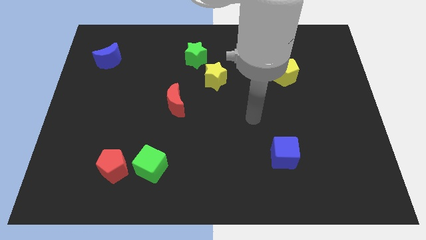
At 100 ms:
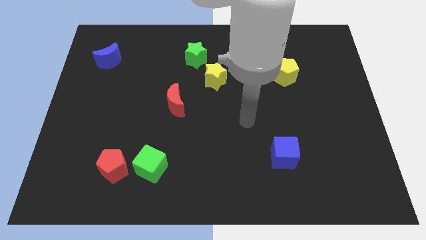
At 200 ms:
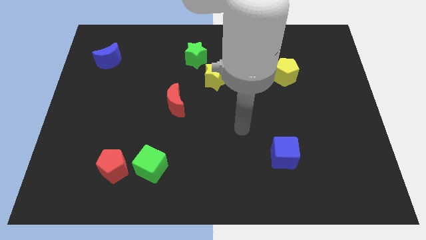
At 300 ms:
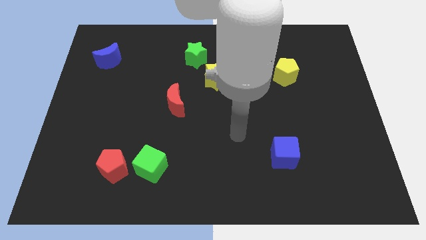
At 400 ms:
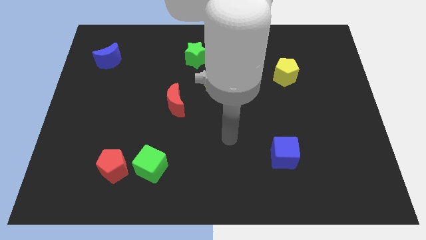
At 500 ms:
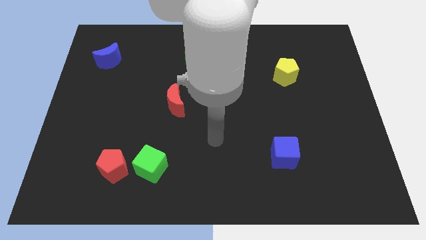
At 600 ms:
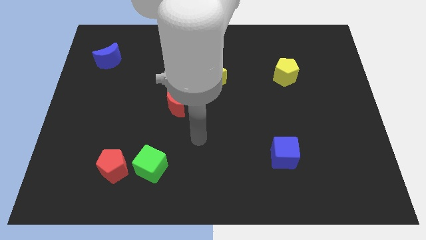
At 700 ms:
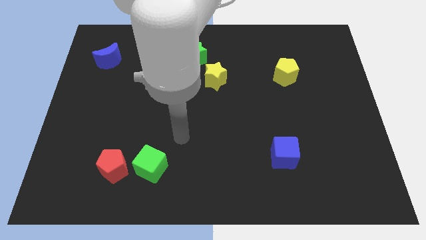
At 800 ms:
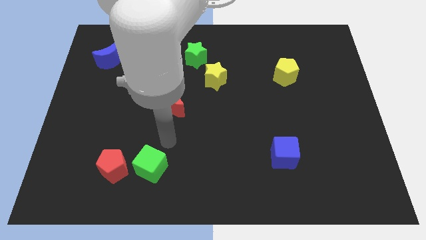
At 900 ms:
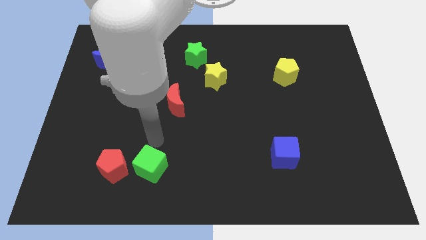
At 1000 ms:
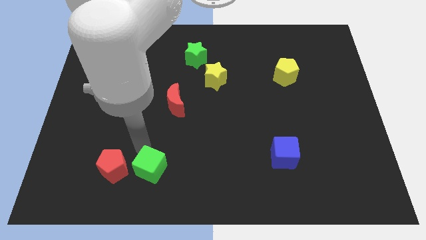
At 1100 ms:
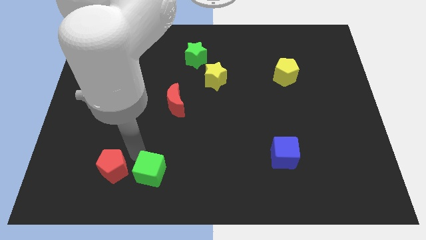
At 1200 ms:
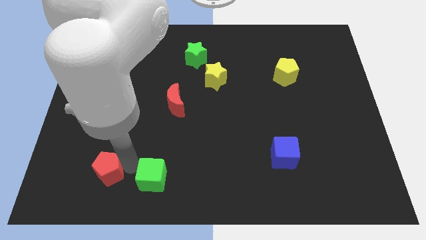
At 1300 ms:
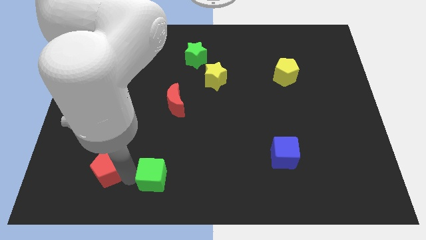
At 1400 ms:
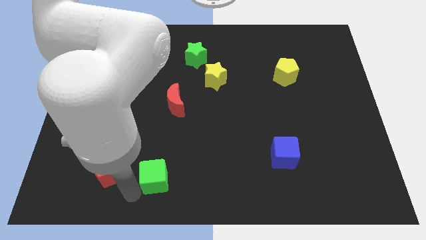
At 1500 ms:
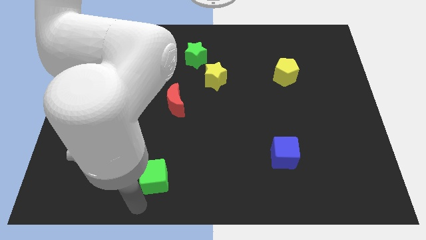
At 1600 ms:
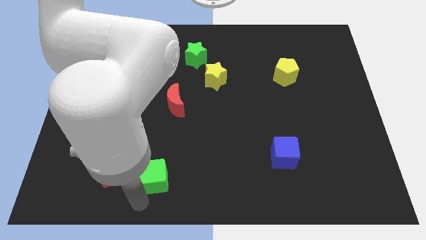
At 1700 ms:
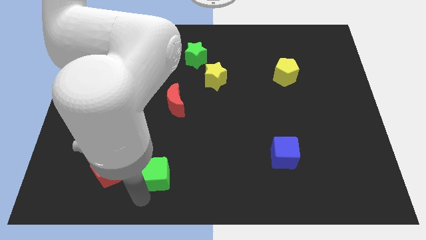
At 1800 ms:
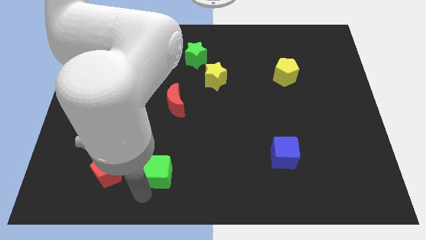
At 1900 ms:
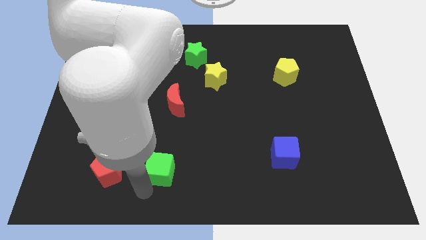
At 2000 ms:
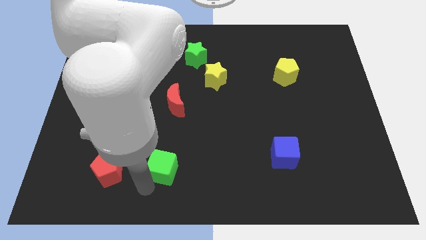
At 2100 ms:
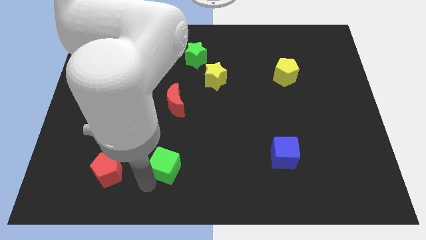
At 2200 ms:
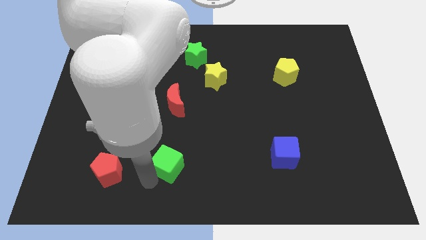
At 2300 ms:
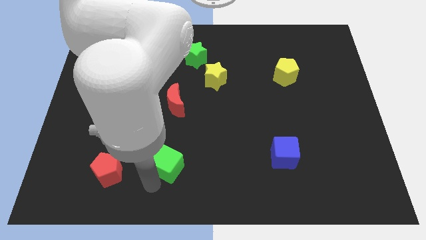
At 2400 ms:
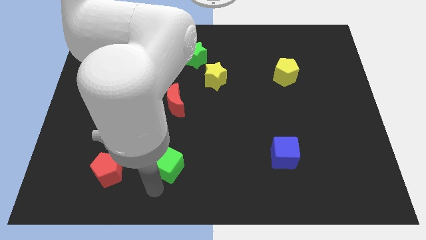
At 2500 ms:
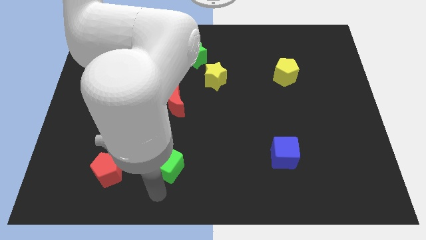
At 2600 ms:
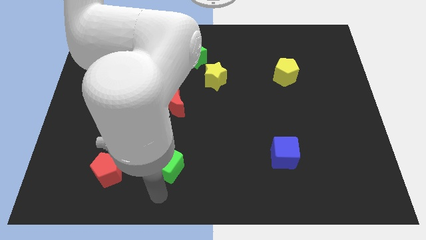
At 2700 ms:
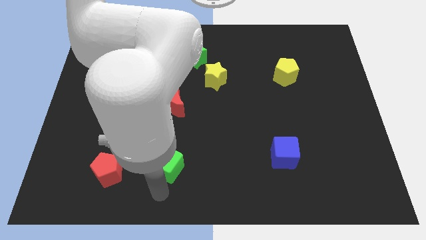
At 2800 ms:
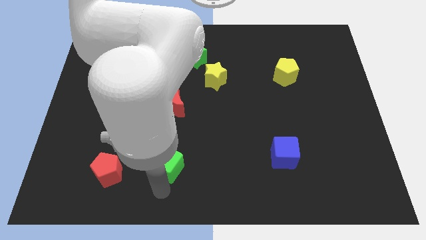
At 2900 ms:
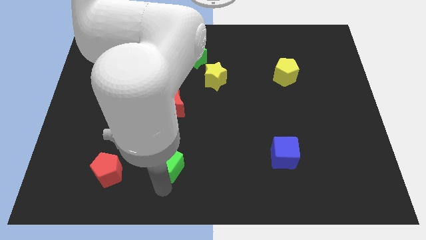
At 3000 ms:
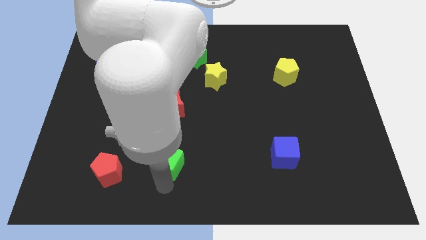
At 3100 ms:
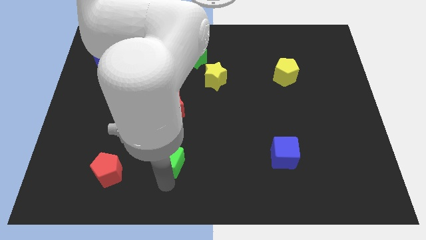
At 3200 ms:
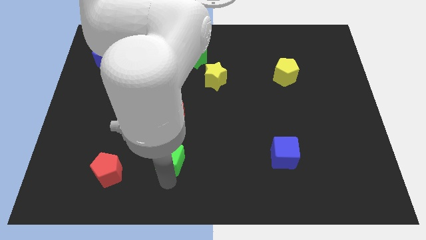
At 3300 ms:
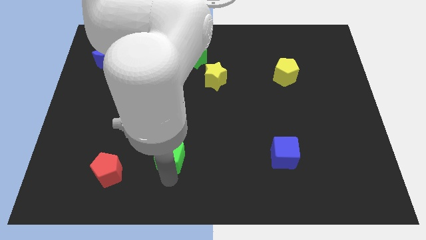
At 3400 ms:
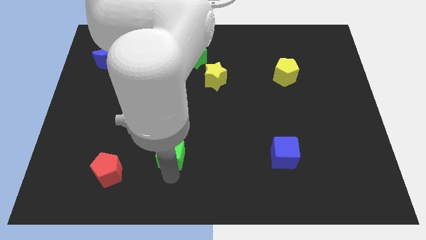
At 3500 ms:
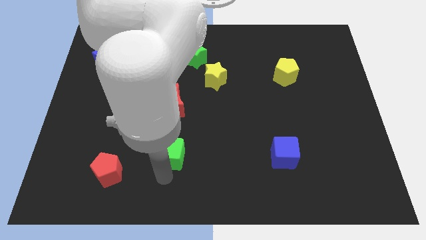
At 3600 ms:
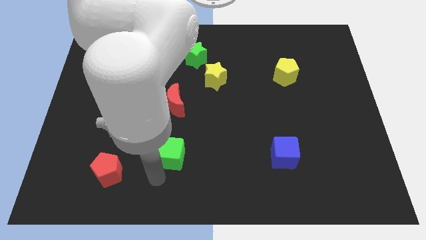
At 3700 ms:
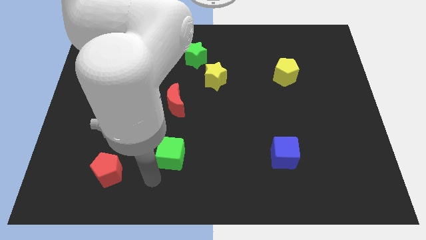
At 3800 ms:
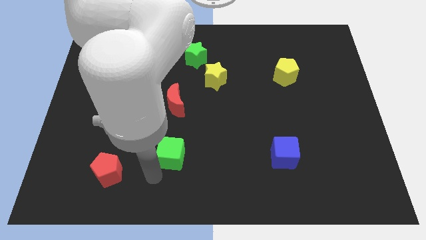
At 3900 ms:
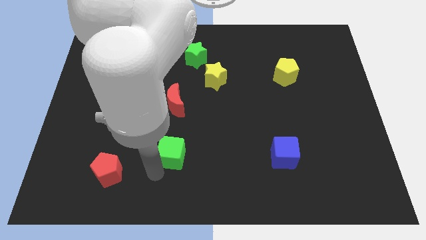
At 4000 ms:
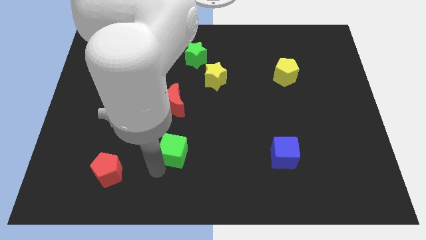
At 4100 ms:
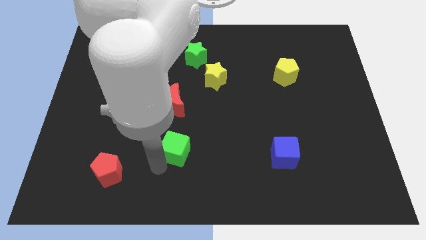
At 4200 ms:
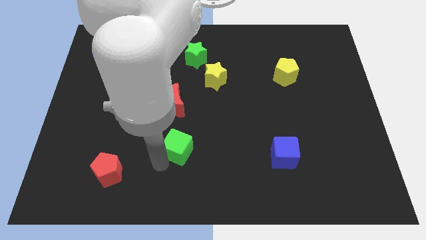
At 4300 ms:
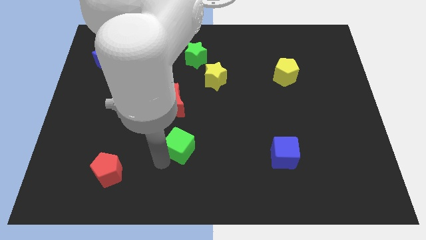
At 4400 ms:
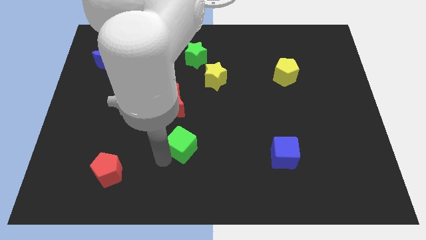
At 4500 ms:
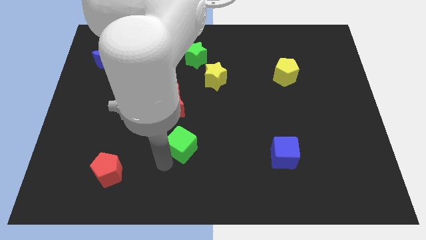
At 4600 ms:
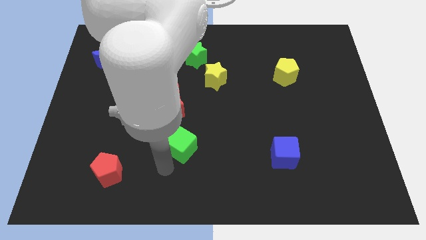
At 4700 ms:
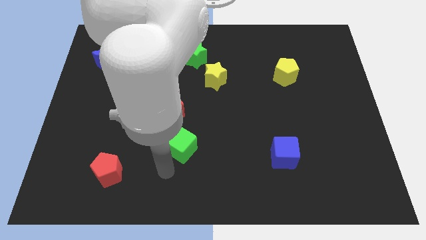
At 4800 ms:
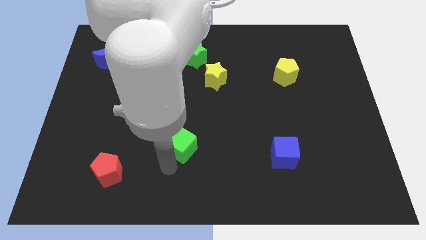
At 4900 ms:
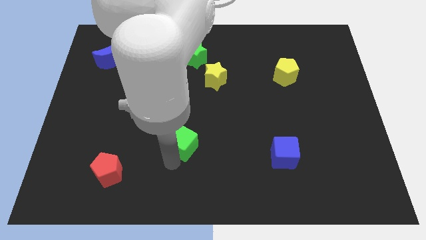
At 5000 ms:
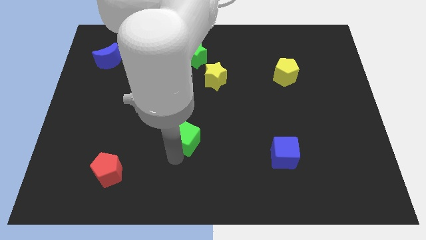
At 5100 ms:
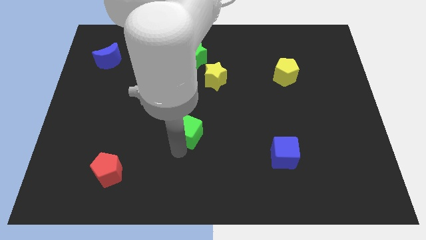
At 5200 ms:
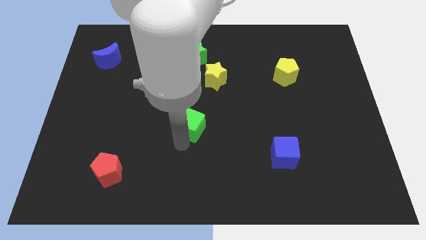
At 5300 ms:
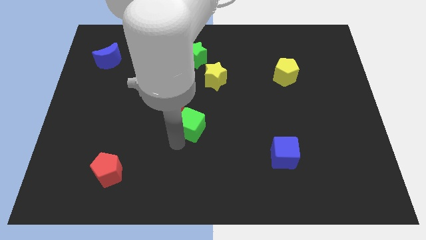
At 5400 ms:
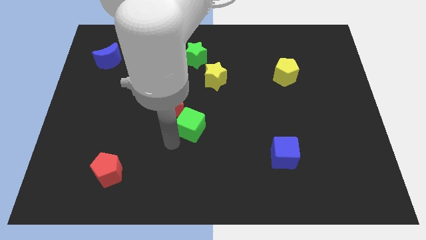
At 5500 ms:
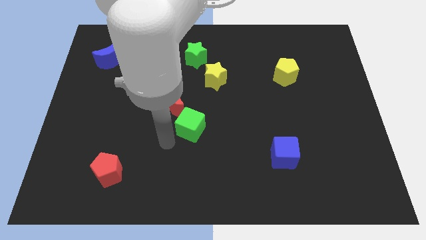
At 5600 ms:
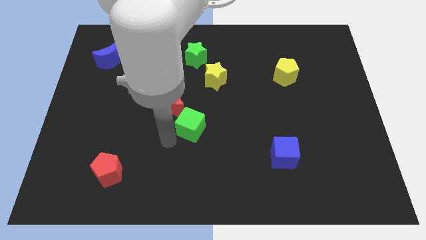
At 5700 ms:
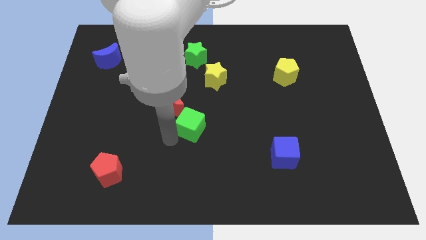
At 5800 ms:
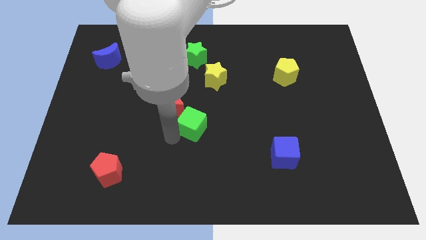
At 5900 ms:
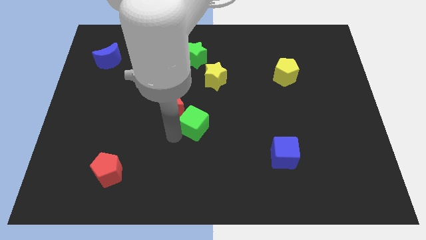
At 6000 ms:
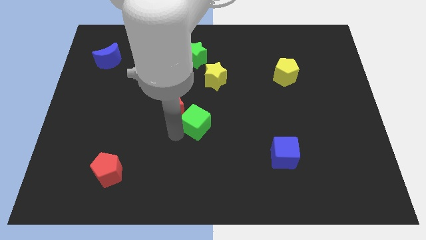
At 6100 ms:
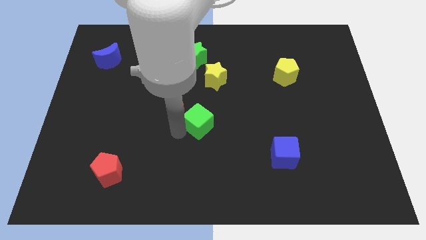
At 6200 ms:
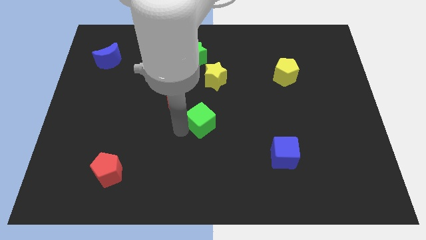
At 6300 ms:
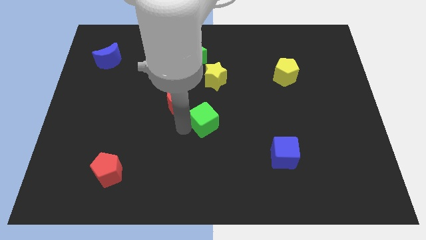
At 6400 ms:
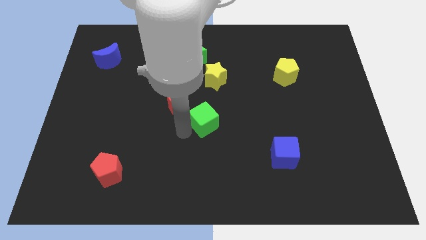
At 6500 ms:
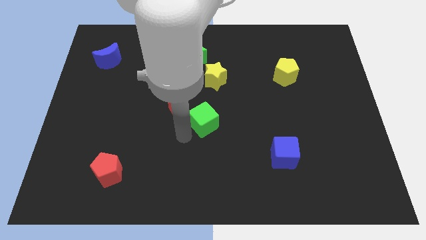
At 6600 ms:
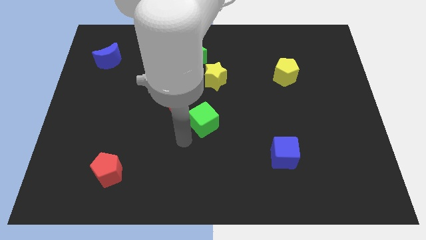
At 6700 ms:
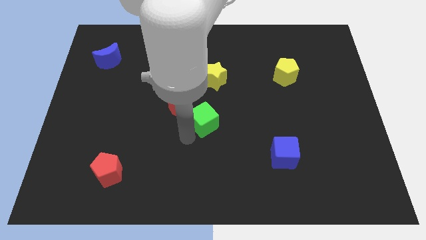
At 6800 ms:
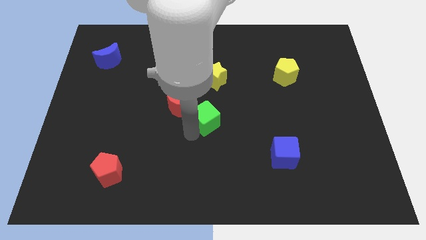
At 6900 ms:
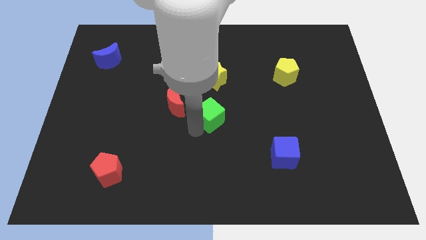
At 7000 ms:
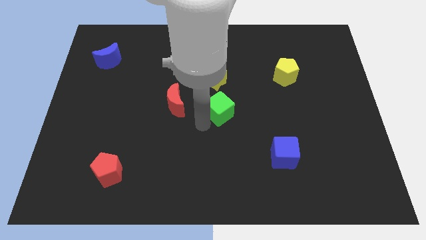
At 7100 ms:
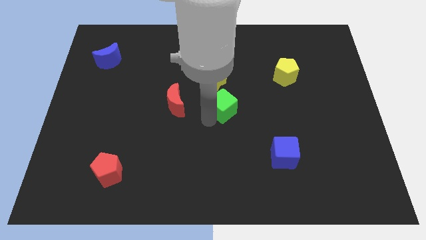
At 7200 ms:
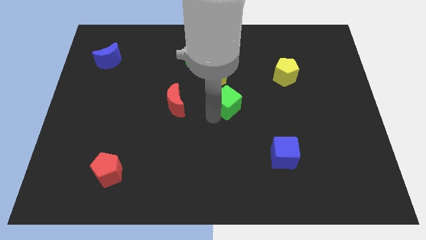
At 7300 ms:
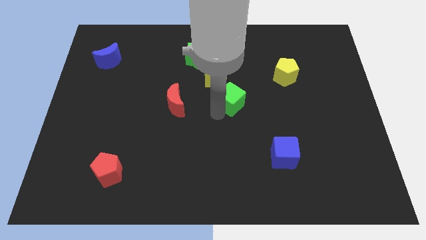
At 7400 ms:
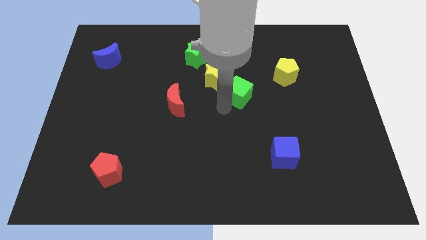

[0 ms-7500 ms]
move the green cube right of the yellow star
